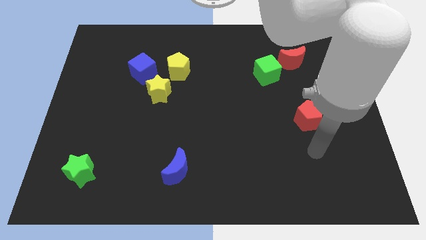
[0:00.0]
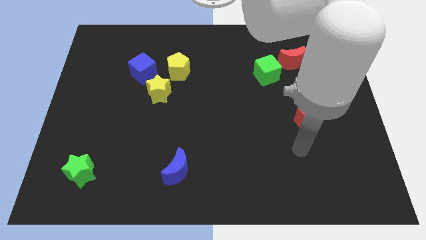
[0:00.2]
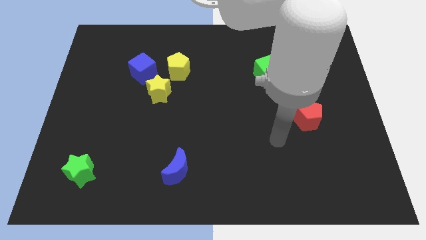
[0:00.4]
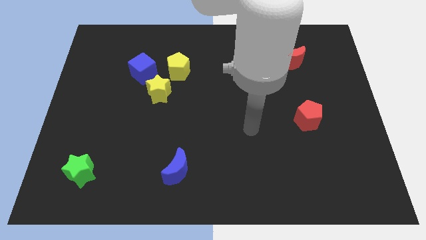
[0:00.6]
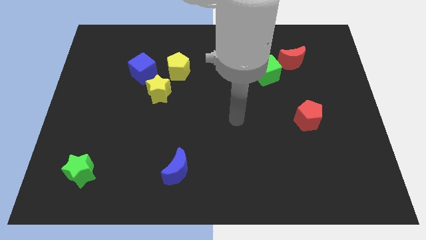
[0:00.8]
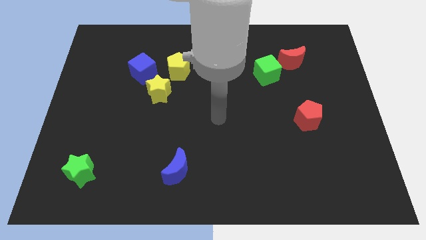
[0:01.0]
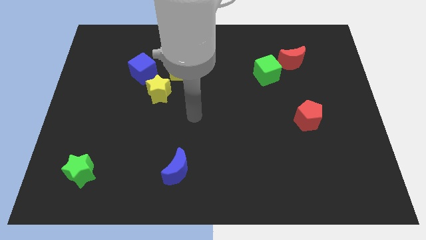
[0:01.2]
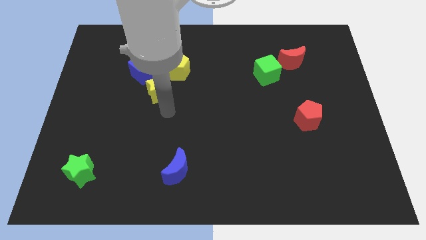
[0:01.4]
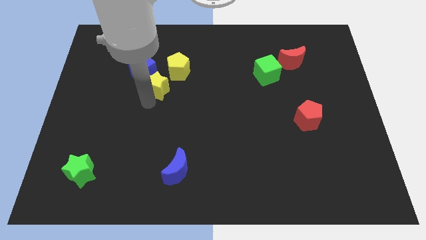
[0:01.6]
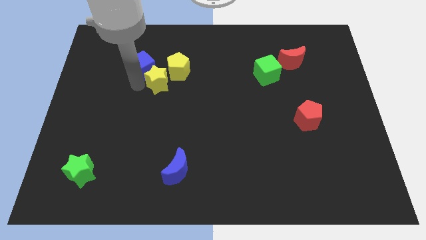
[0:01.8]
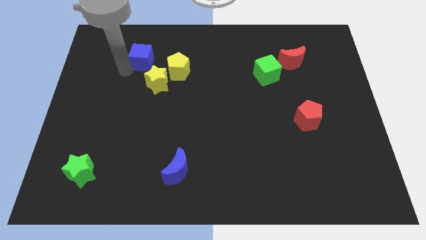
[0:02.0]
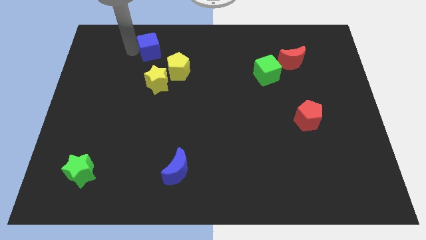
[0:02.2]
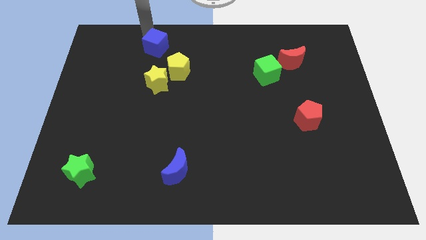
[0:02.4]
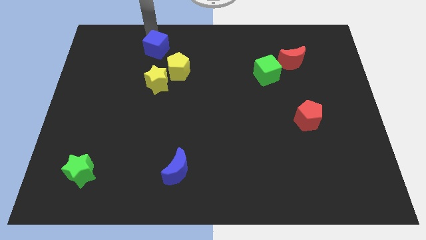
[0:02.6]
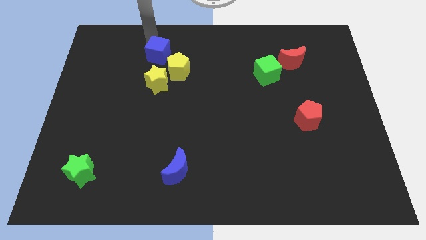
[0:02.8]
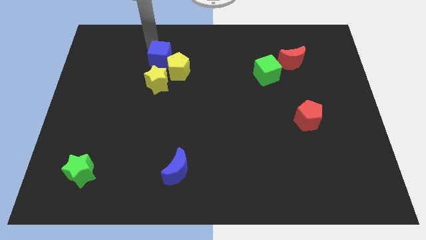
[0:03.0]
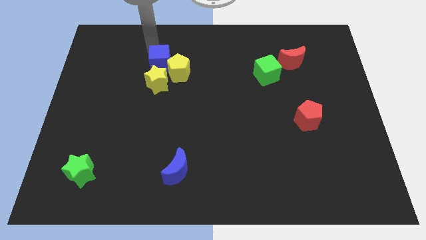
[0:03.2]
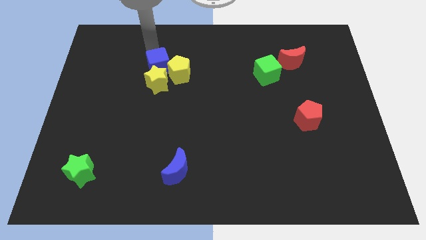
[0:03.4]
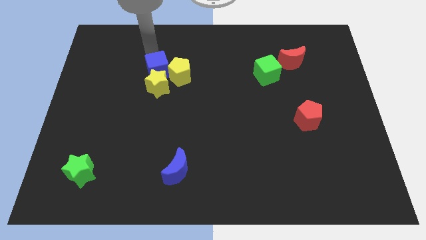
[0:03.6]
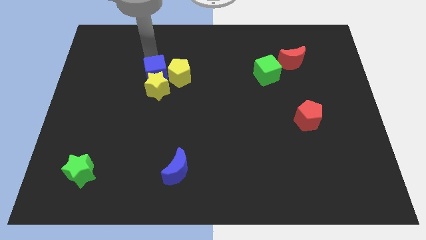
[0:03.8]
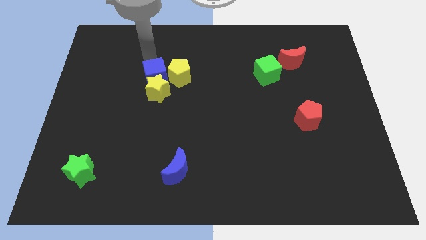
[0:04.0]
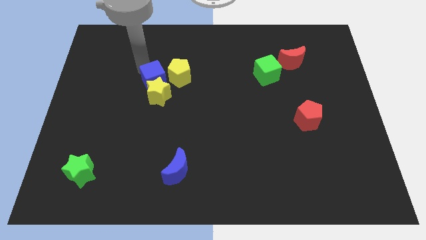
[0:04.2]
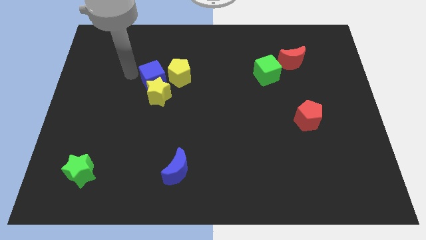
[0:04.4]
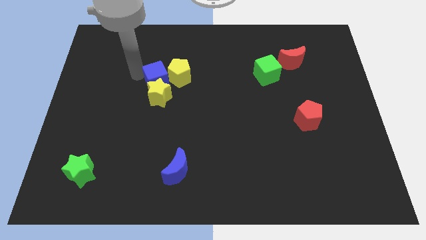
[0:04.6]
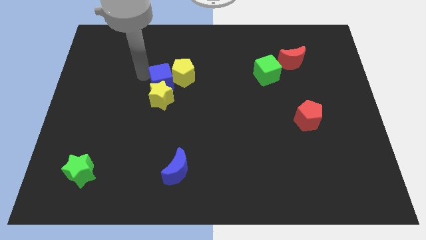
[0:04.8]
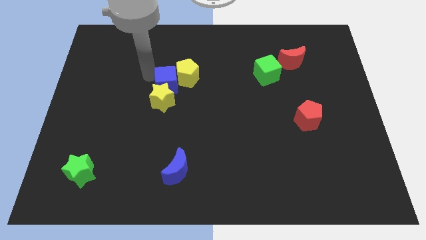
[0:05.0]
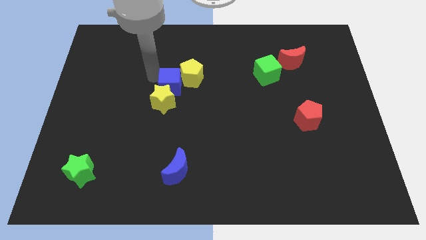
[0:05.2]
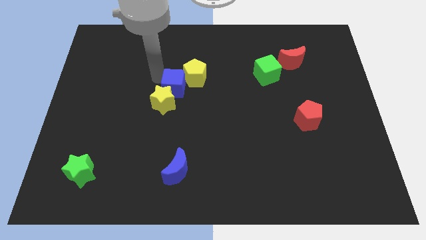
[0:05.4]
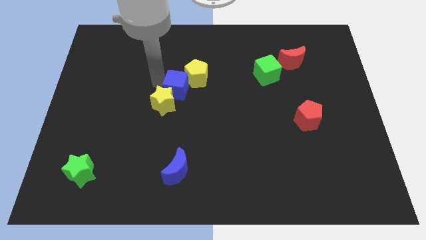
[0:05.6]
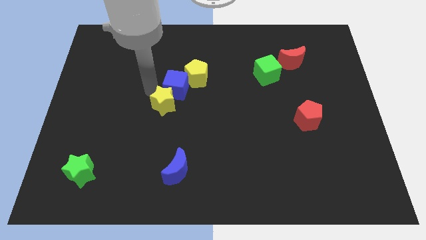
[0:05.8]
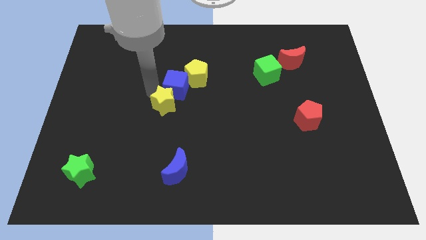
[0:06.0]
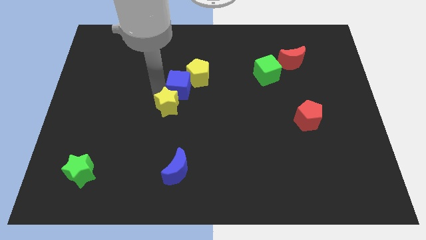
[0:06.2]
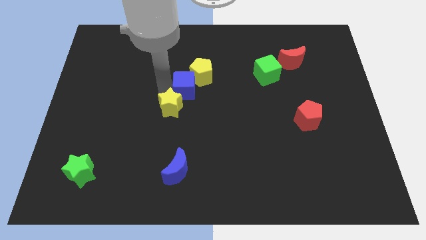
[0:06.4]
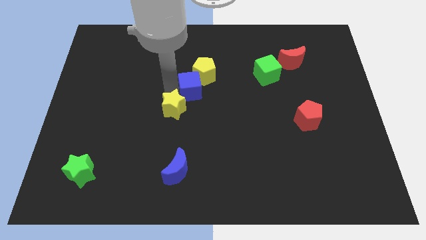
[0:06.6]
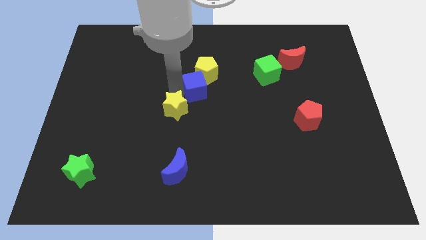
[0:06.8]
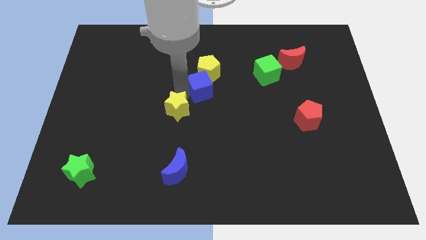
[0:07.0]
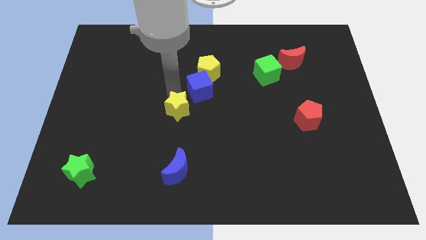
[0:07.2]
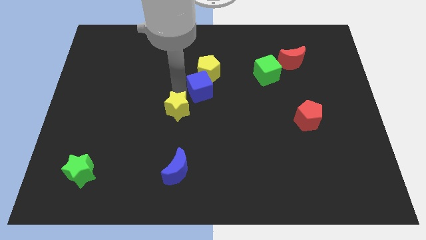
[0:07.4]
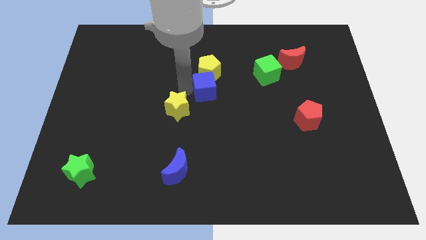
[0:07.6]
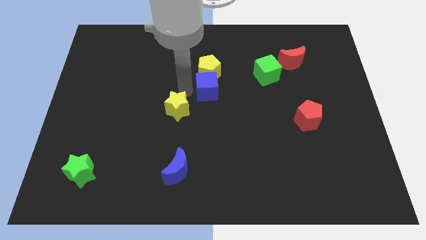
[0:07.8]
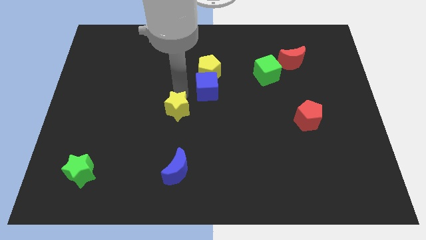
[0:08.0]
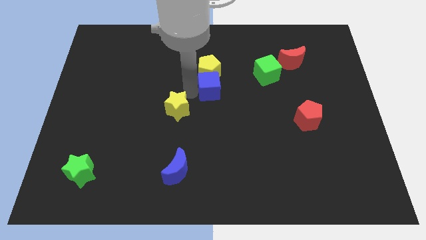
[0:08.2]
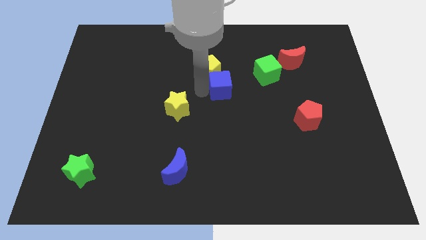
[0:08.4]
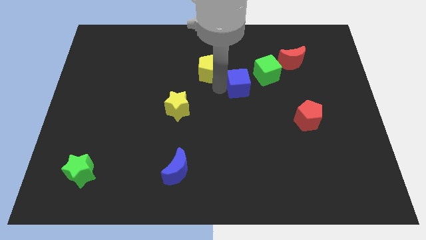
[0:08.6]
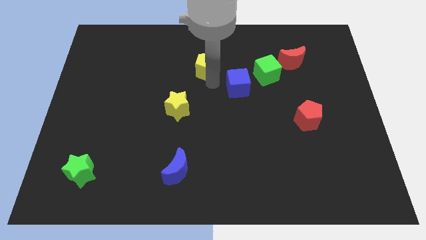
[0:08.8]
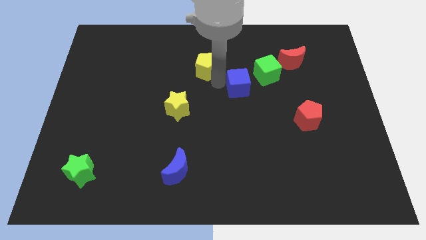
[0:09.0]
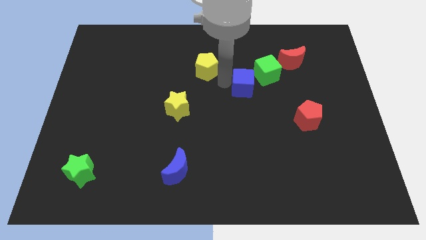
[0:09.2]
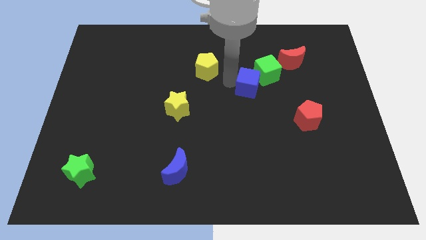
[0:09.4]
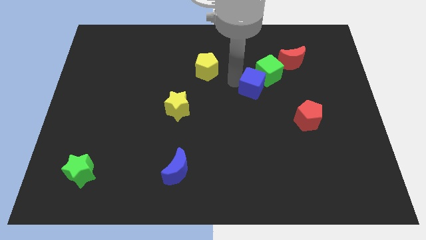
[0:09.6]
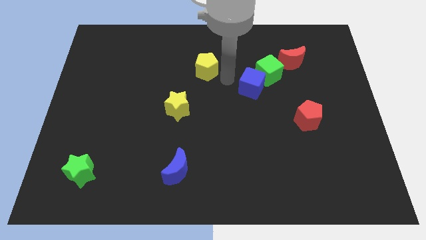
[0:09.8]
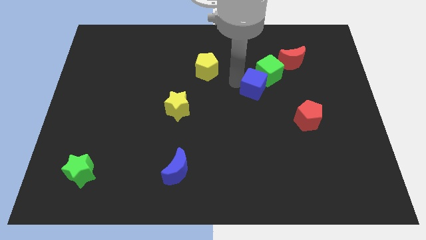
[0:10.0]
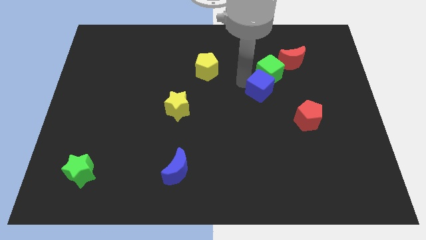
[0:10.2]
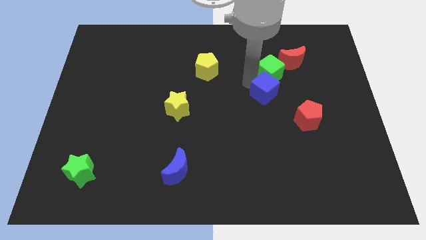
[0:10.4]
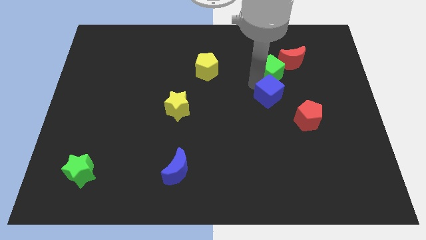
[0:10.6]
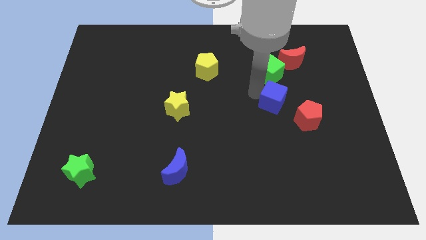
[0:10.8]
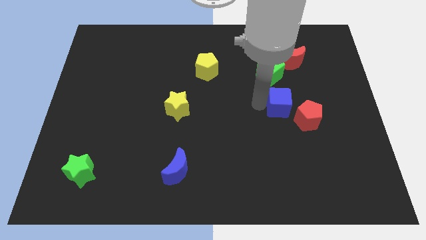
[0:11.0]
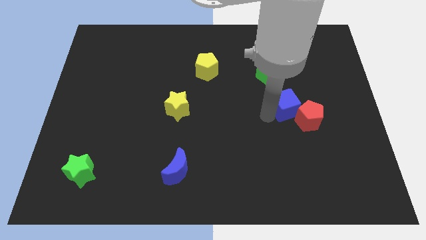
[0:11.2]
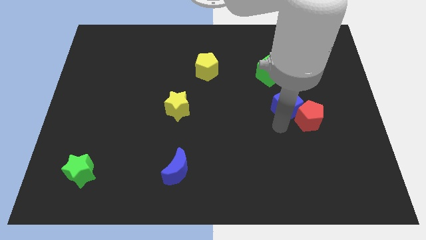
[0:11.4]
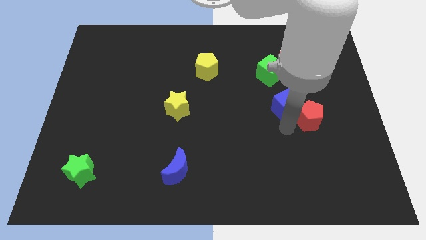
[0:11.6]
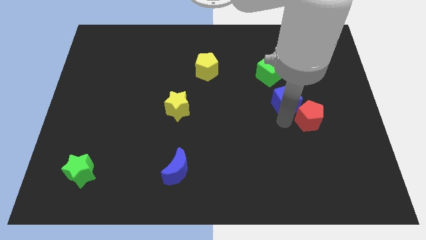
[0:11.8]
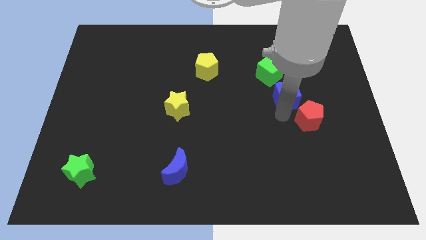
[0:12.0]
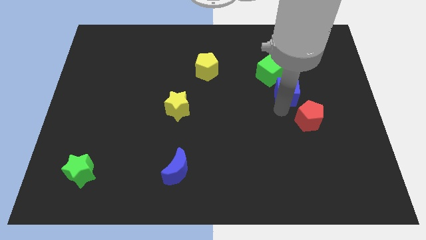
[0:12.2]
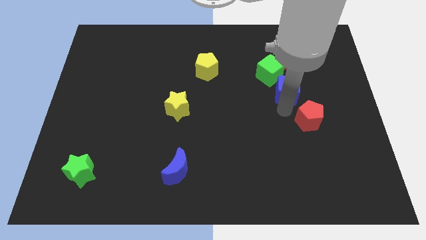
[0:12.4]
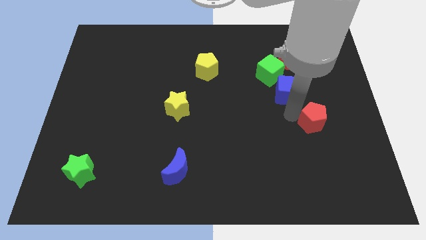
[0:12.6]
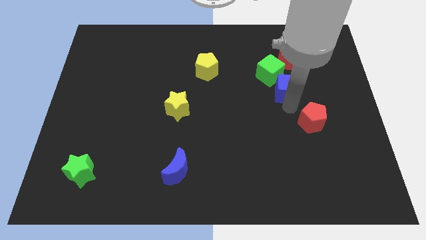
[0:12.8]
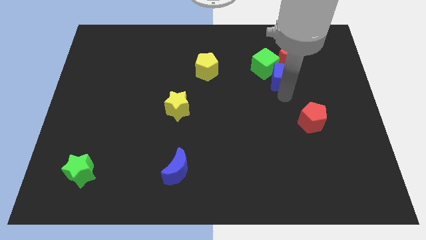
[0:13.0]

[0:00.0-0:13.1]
move the blue cube to the right of the green cube
